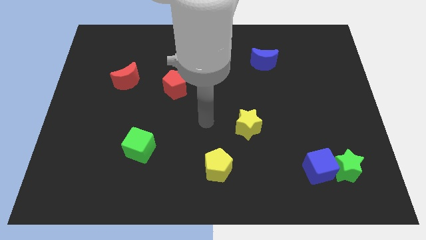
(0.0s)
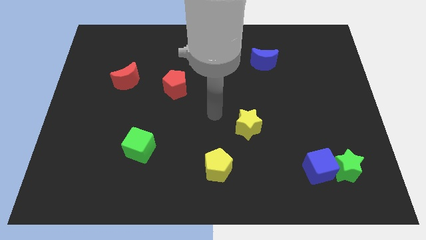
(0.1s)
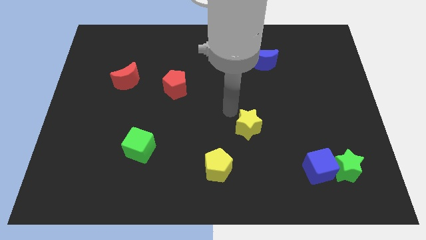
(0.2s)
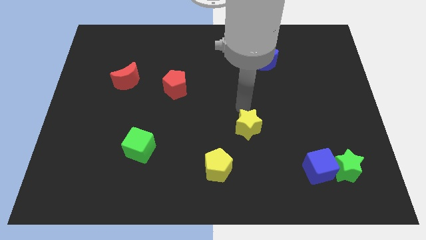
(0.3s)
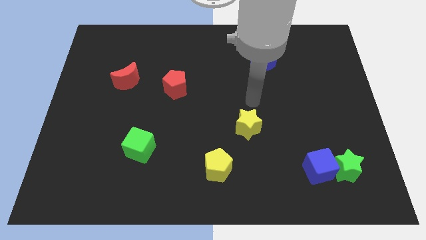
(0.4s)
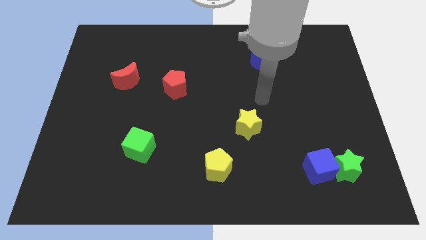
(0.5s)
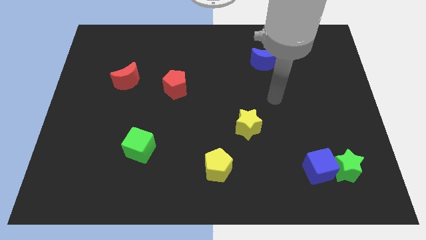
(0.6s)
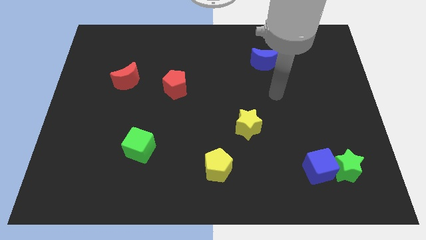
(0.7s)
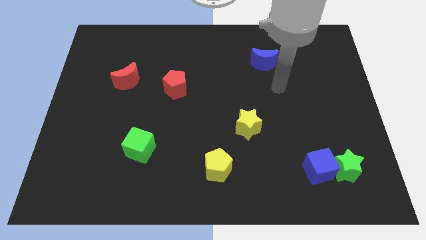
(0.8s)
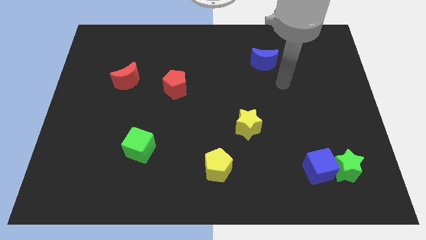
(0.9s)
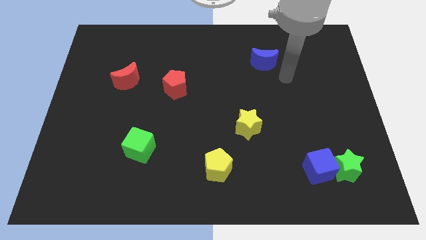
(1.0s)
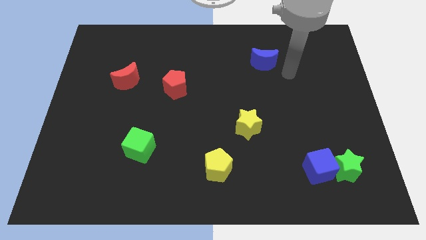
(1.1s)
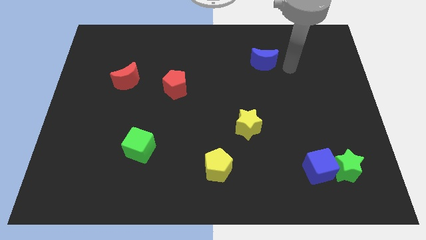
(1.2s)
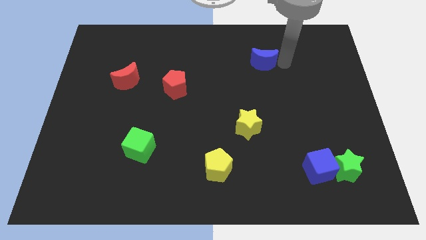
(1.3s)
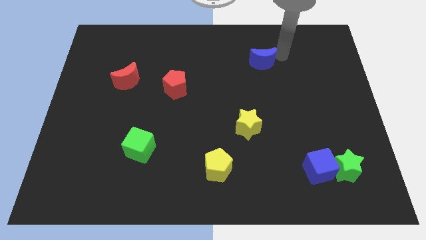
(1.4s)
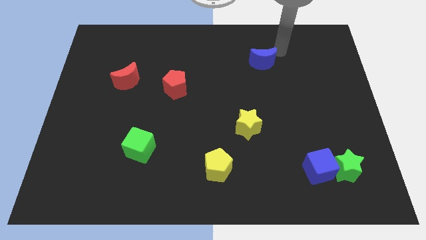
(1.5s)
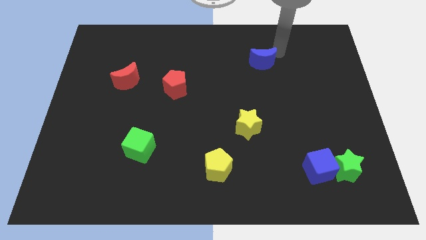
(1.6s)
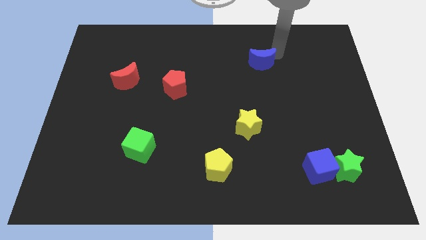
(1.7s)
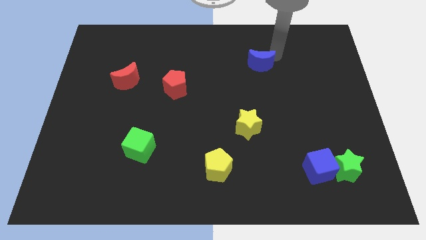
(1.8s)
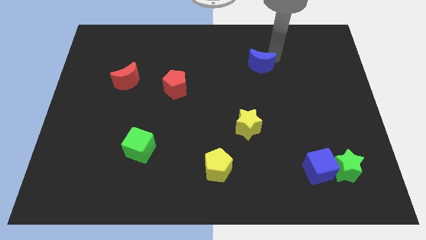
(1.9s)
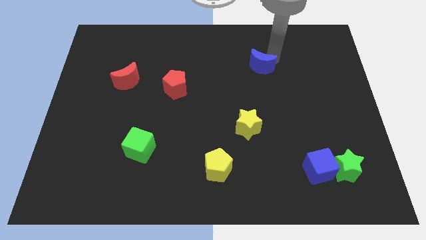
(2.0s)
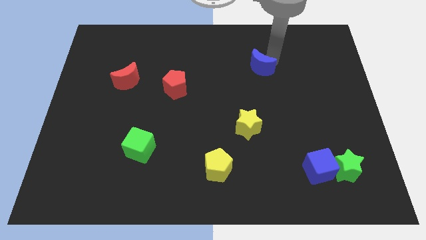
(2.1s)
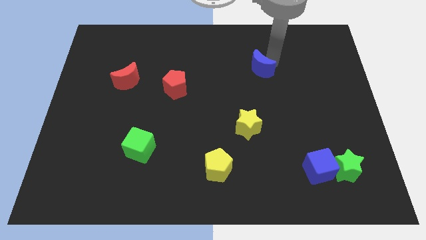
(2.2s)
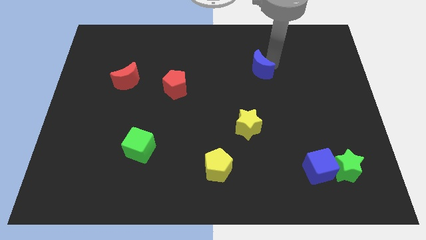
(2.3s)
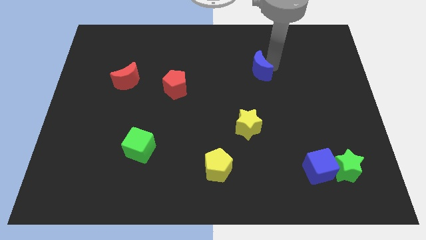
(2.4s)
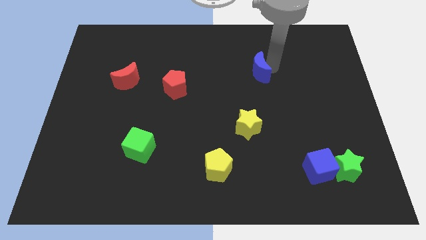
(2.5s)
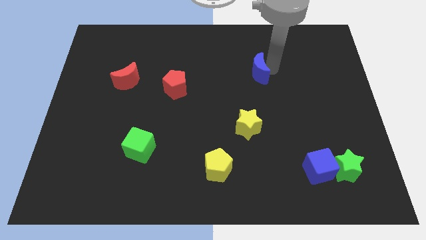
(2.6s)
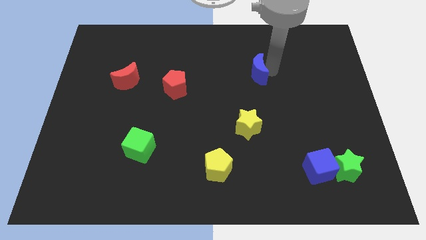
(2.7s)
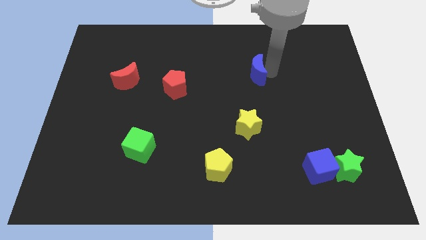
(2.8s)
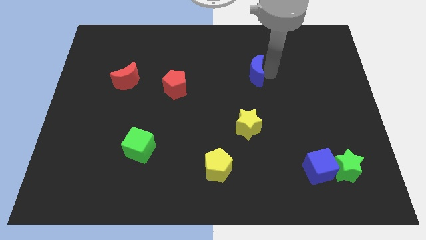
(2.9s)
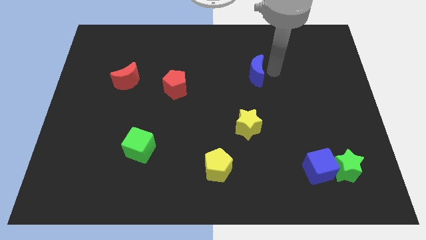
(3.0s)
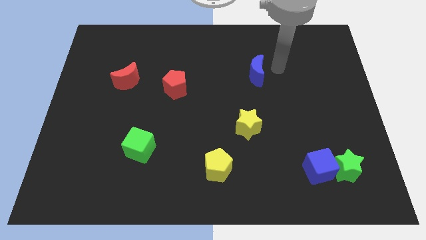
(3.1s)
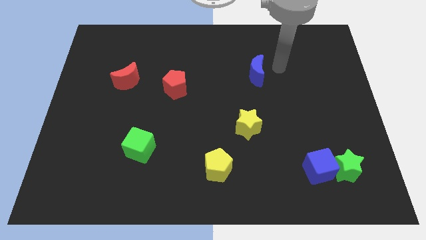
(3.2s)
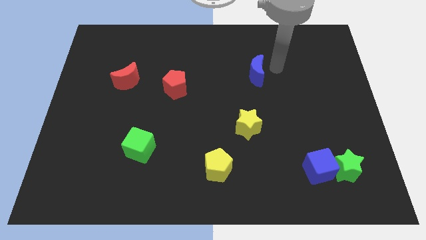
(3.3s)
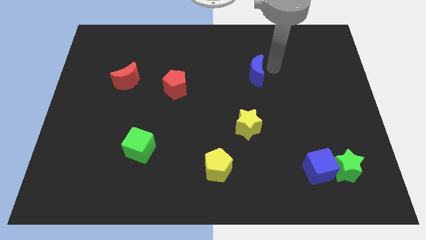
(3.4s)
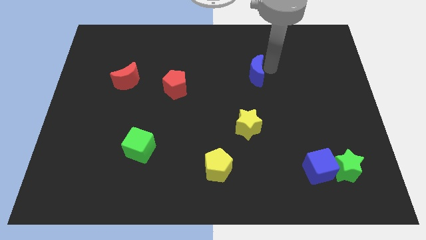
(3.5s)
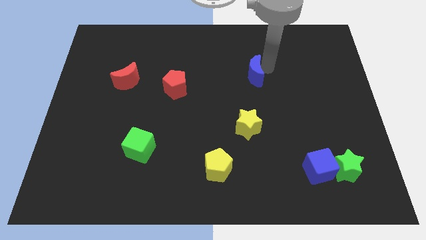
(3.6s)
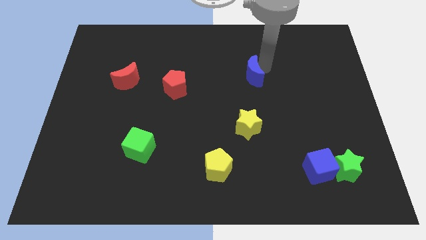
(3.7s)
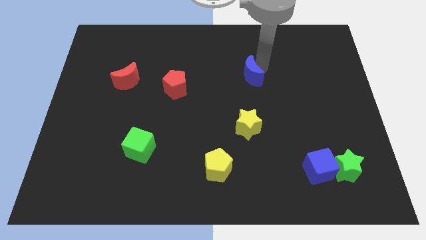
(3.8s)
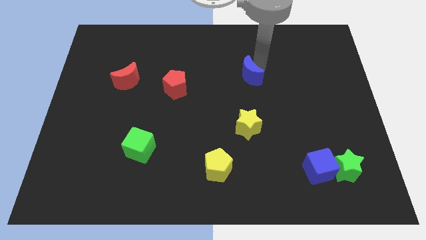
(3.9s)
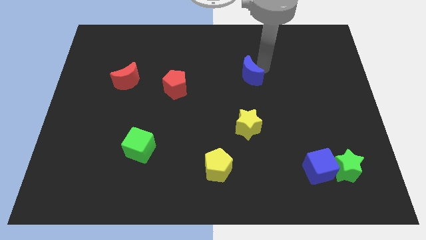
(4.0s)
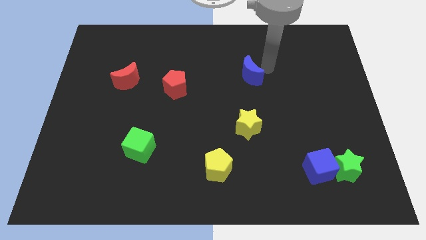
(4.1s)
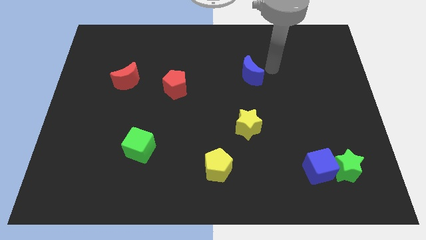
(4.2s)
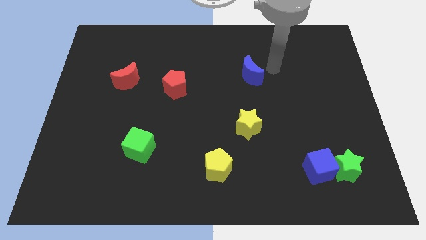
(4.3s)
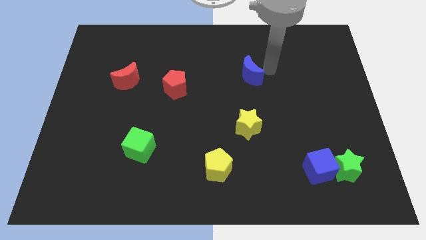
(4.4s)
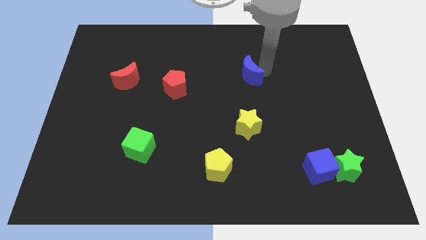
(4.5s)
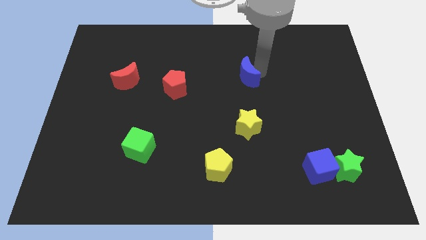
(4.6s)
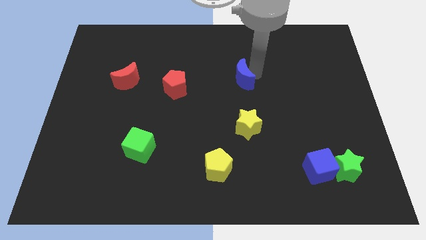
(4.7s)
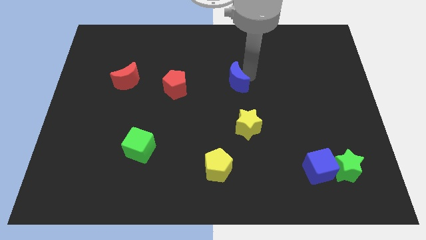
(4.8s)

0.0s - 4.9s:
move the blue moon to the right side of the red pentagon

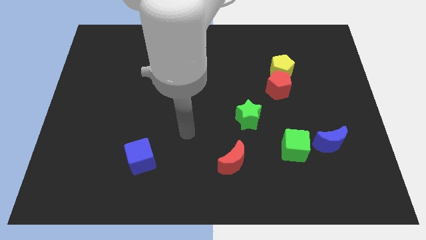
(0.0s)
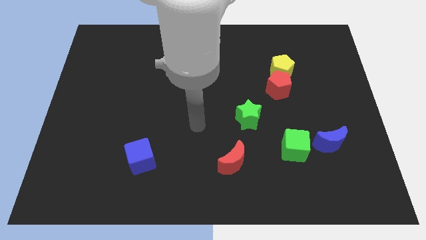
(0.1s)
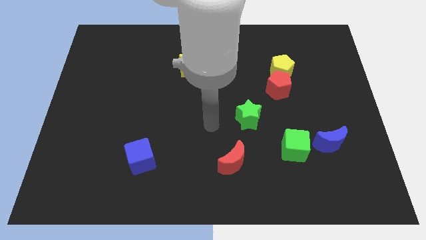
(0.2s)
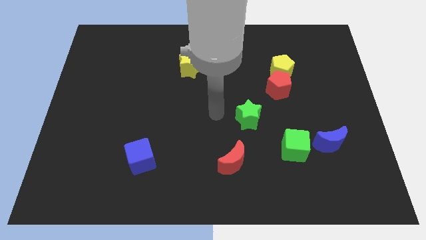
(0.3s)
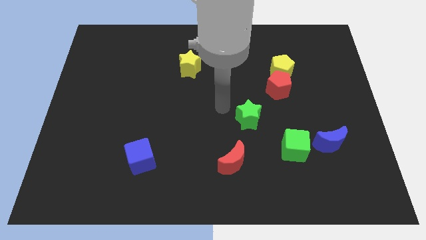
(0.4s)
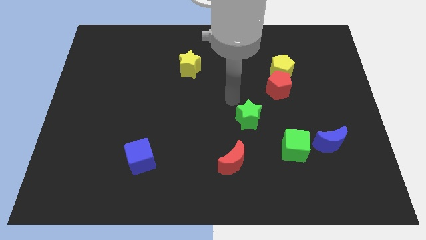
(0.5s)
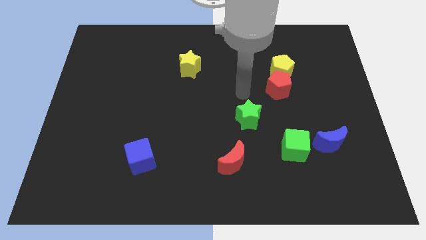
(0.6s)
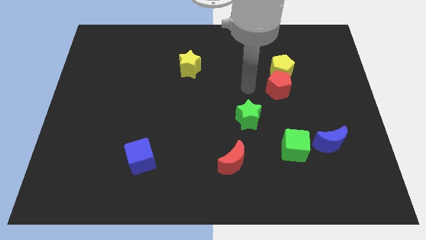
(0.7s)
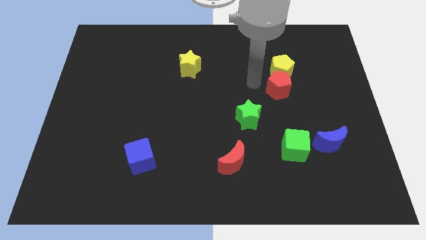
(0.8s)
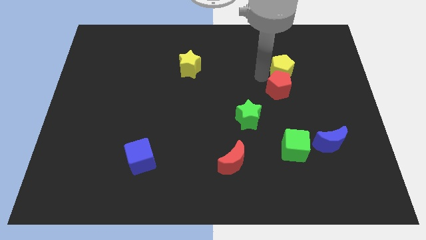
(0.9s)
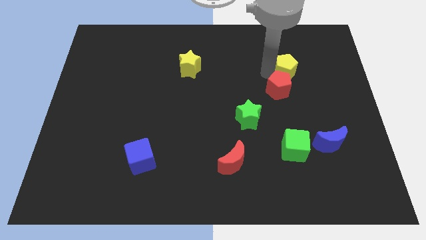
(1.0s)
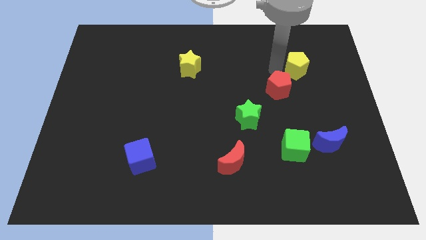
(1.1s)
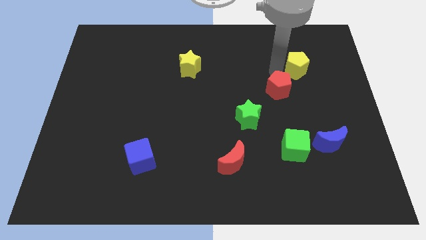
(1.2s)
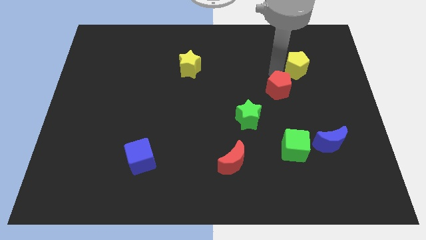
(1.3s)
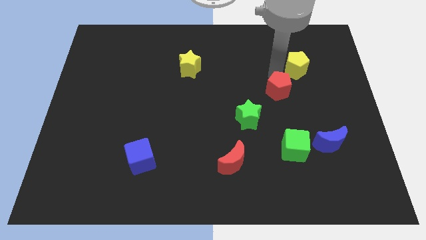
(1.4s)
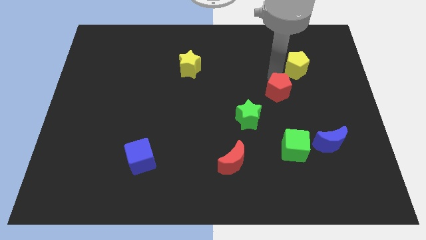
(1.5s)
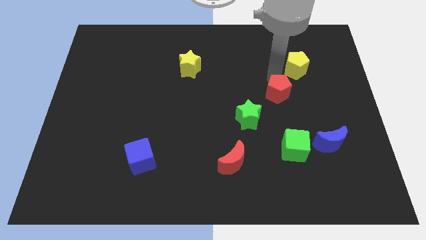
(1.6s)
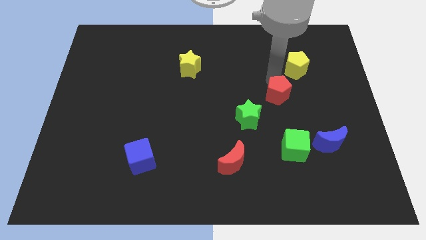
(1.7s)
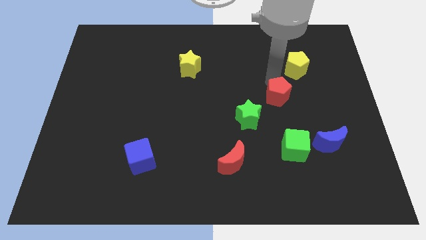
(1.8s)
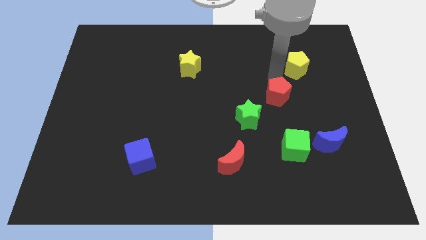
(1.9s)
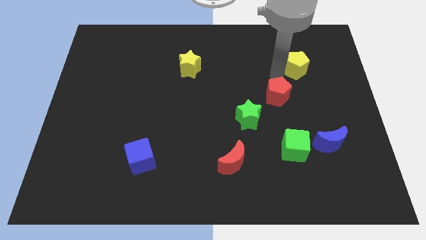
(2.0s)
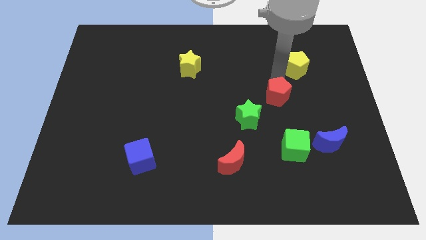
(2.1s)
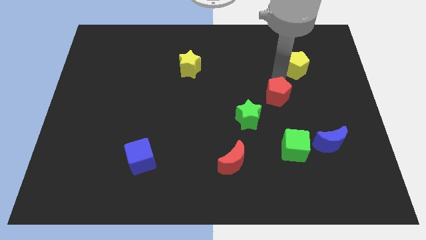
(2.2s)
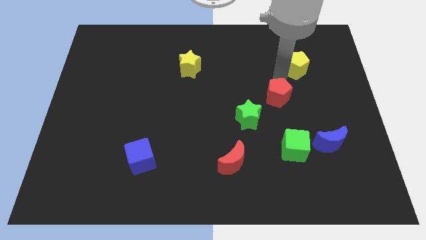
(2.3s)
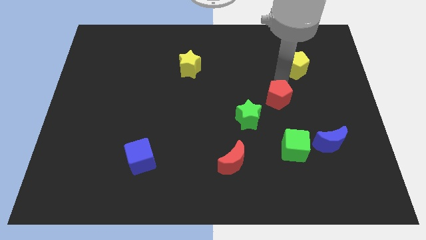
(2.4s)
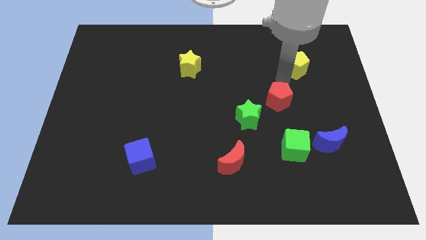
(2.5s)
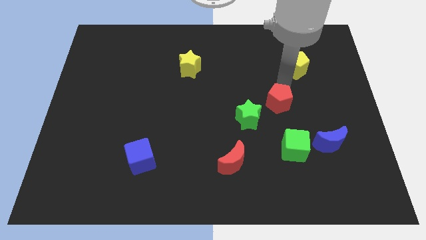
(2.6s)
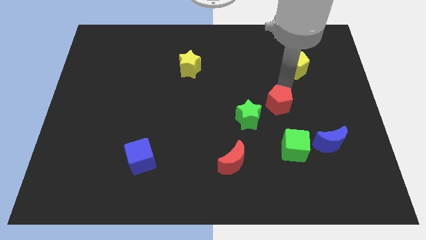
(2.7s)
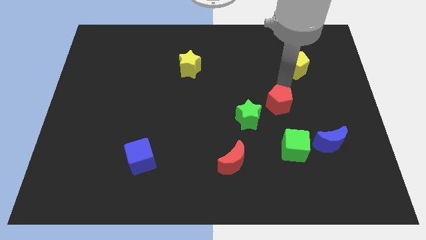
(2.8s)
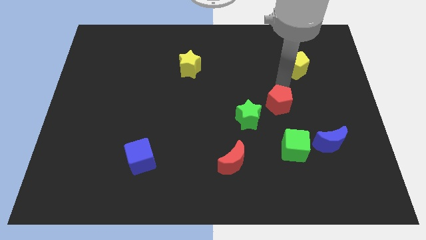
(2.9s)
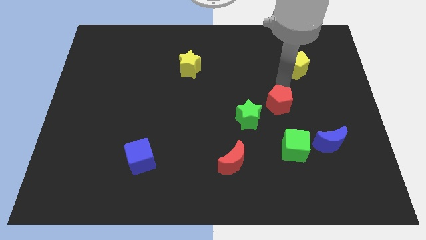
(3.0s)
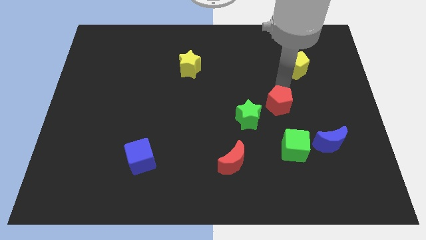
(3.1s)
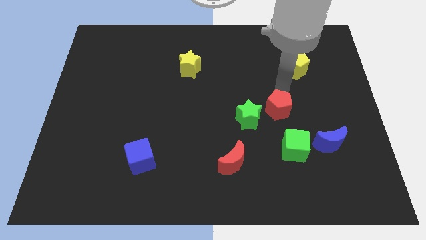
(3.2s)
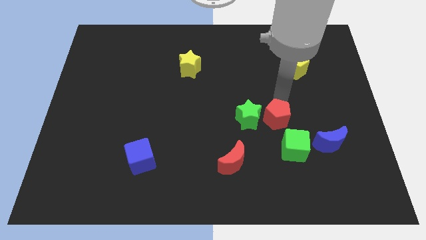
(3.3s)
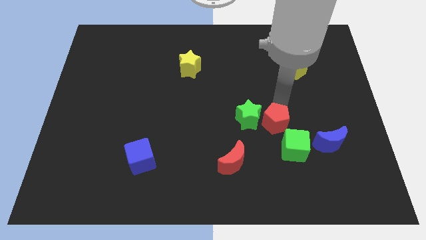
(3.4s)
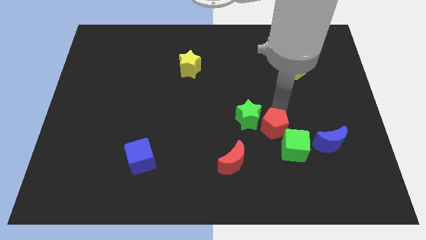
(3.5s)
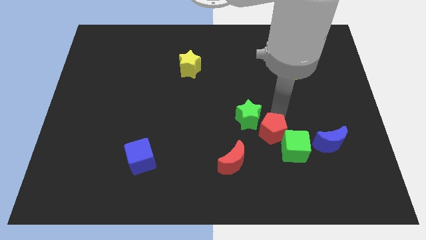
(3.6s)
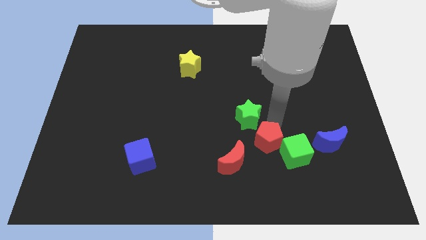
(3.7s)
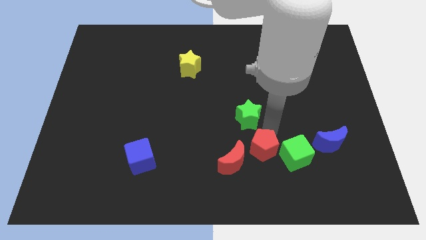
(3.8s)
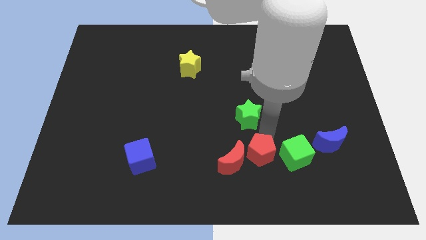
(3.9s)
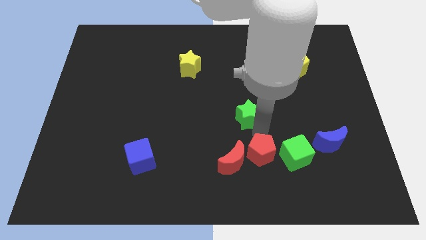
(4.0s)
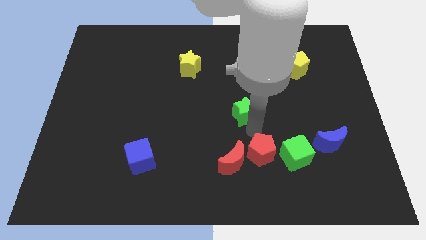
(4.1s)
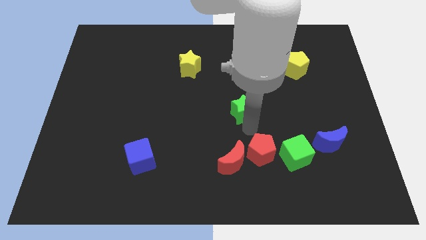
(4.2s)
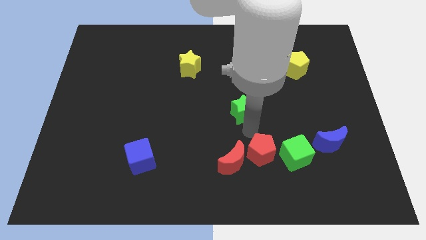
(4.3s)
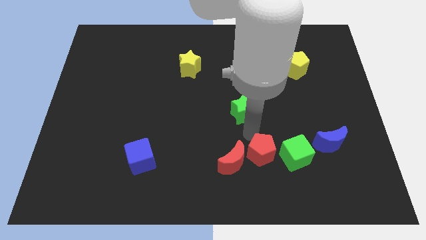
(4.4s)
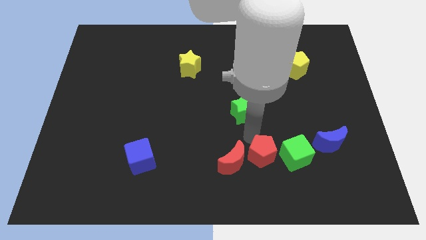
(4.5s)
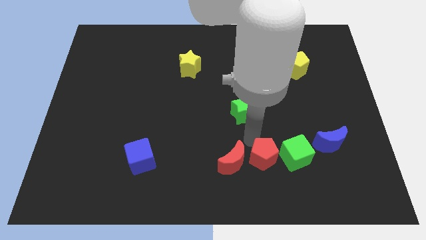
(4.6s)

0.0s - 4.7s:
push the red pentagon diagonally down and to the left of the green cube
